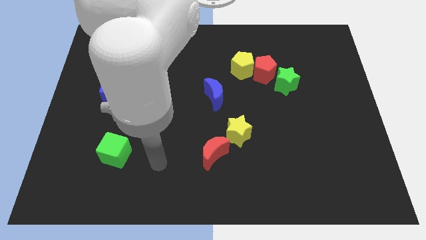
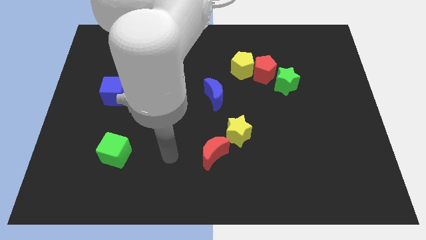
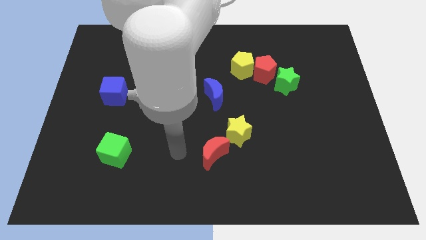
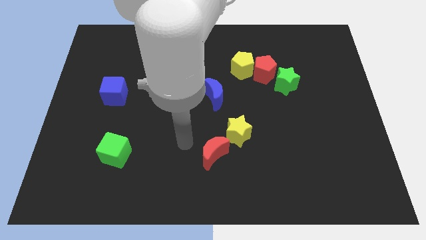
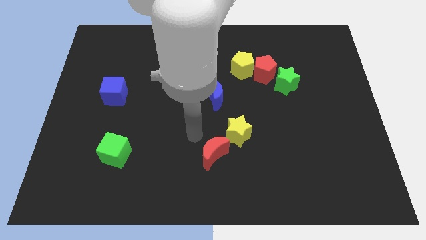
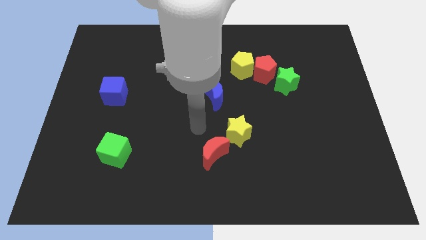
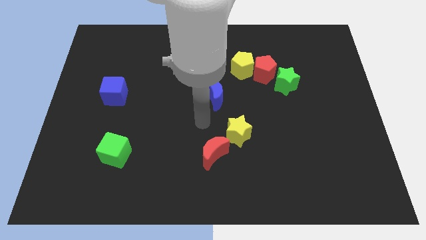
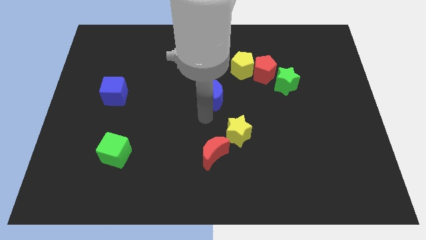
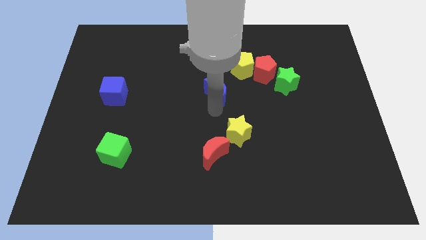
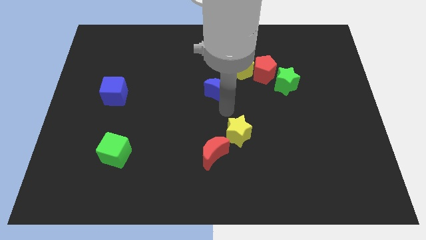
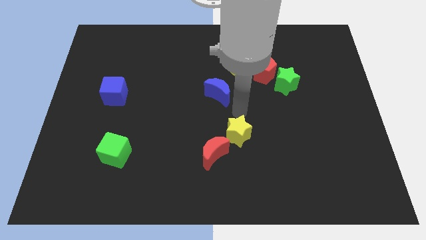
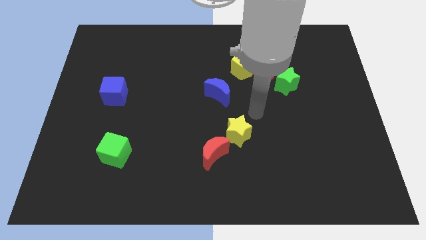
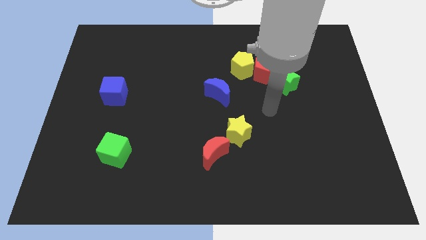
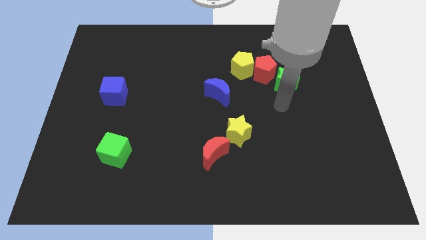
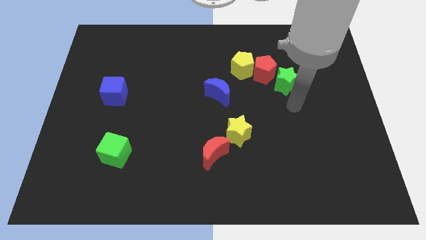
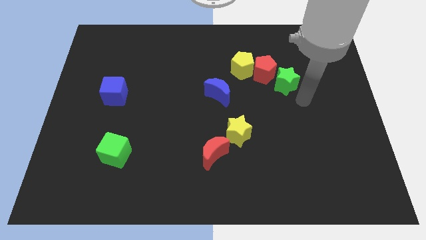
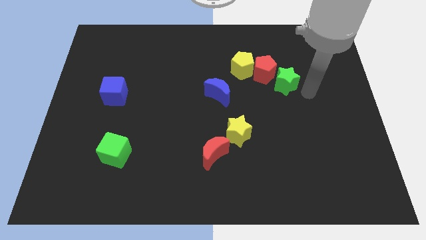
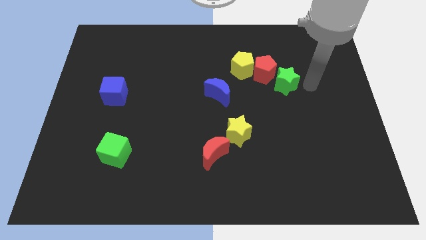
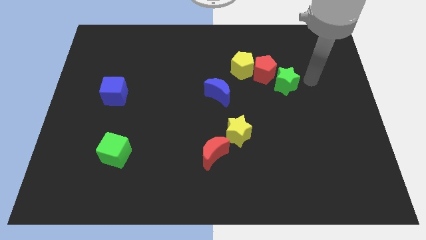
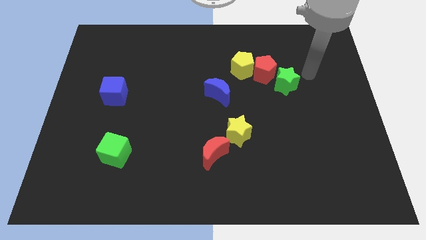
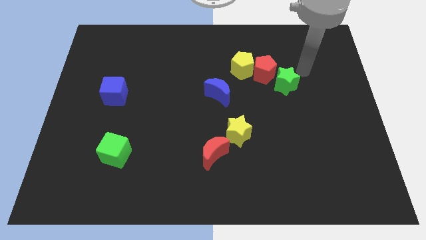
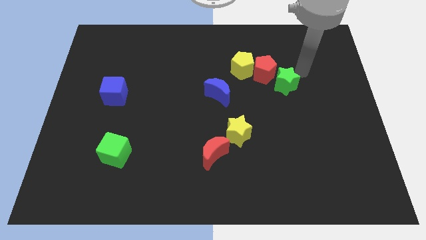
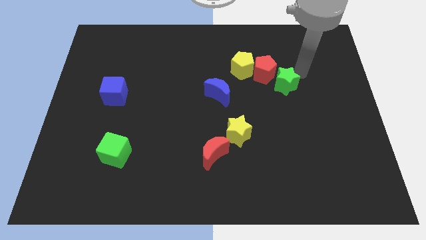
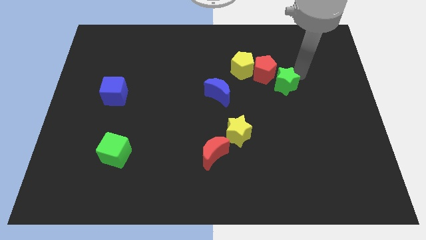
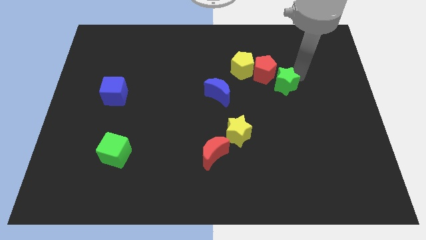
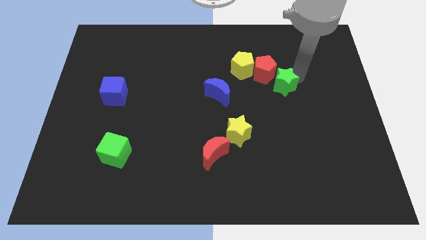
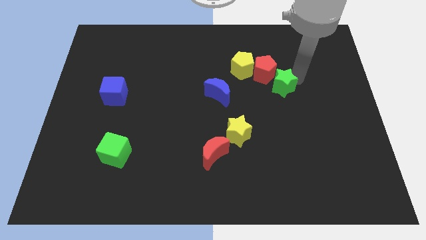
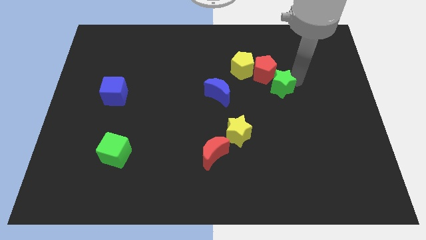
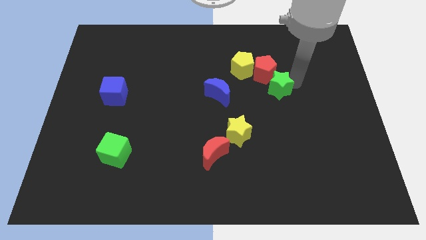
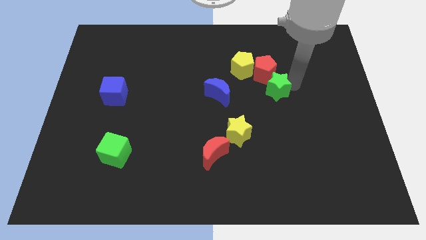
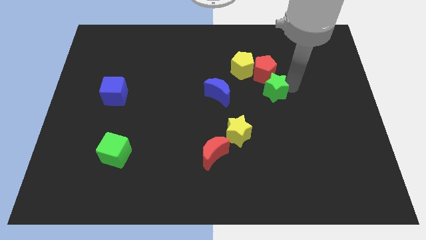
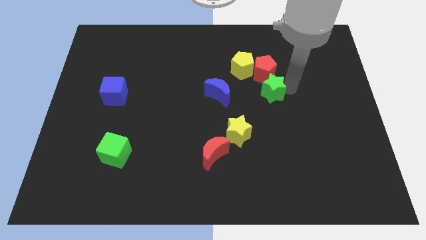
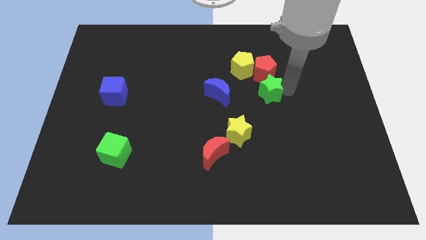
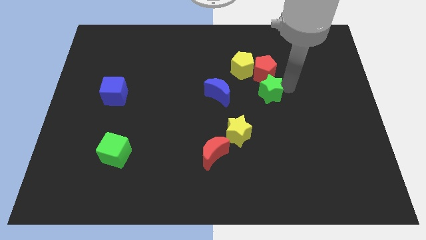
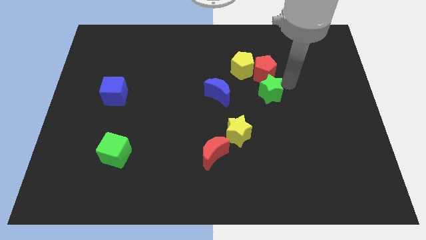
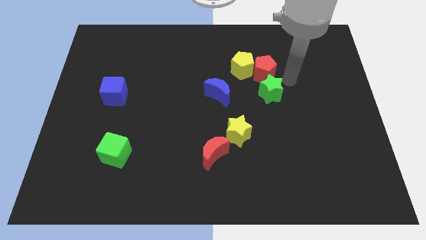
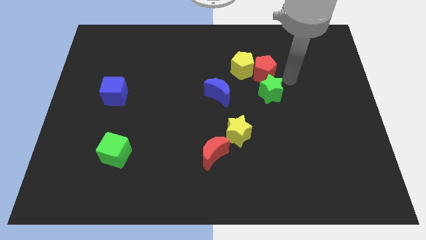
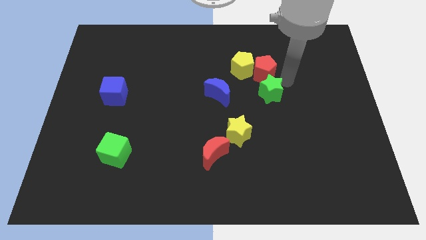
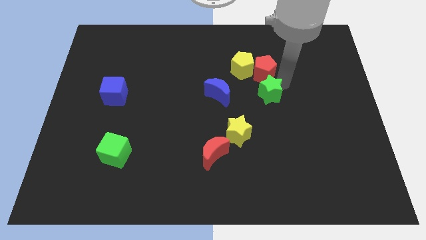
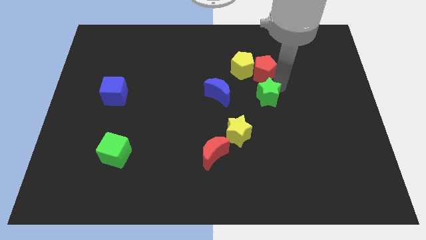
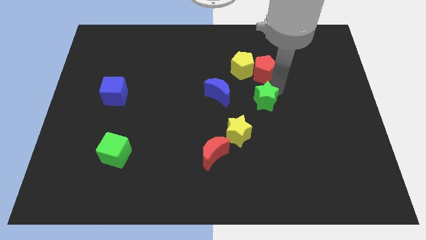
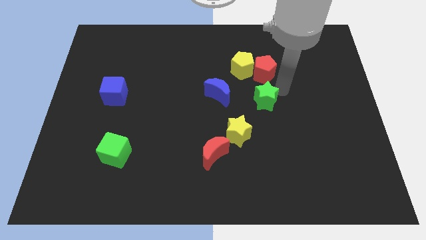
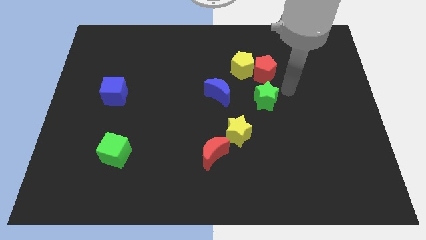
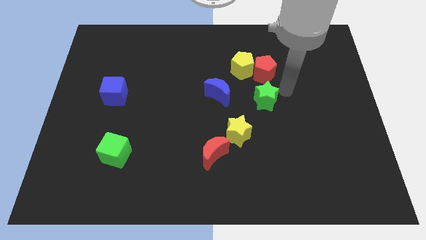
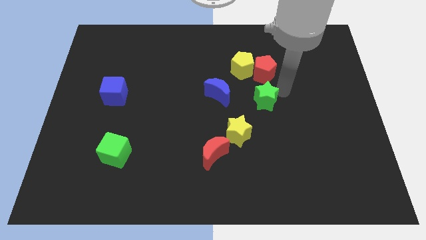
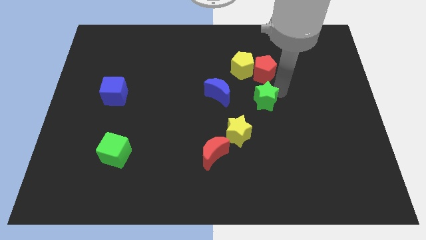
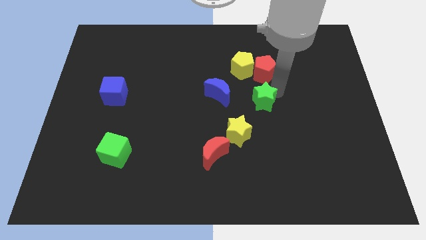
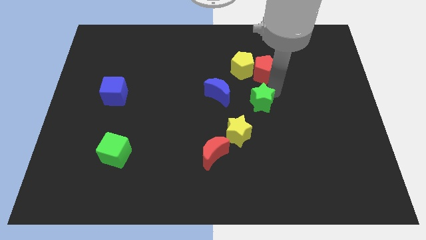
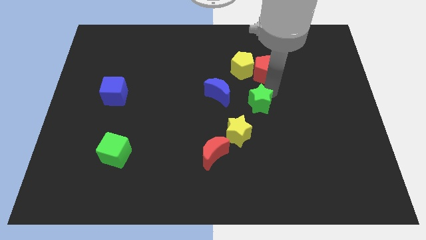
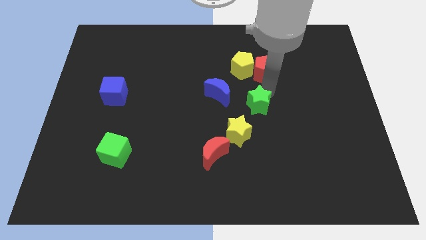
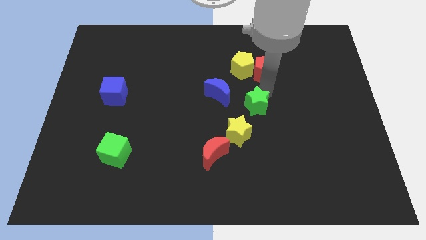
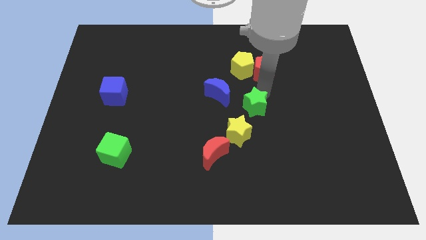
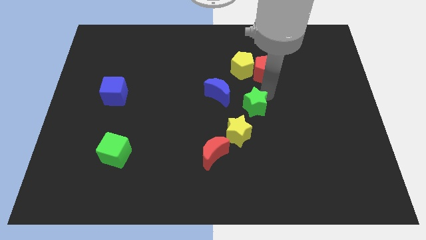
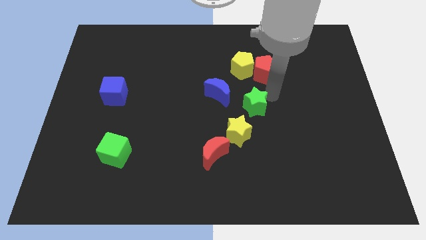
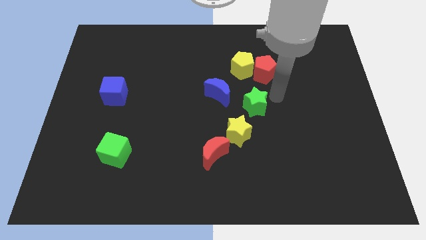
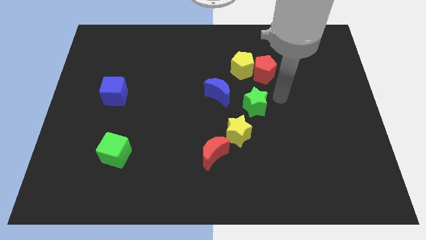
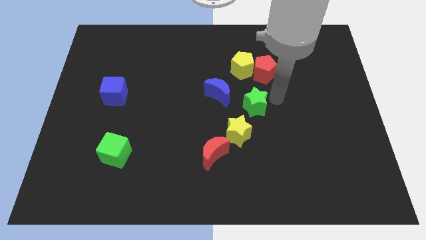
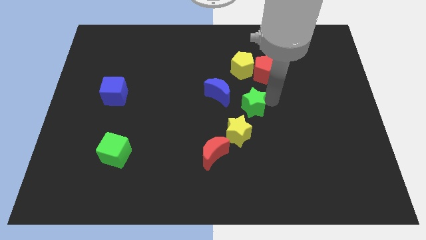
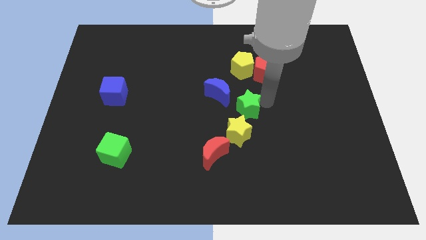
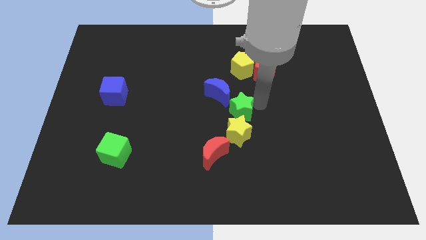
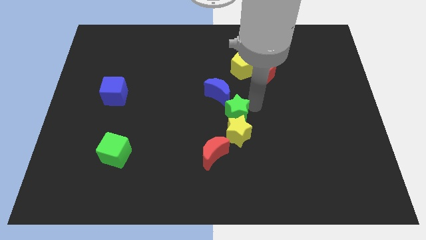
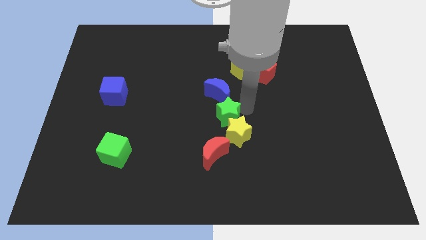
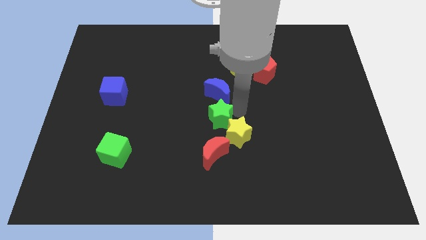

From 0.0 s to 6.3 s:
put the green star just left of the yellow star
